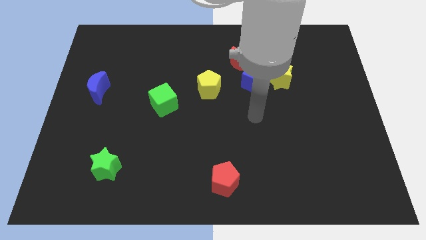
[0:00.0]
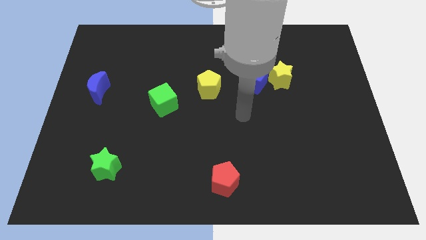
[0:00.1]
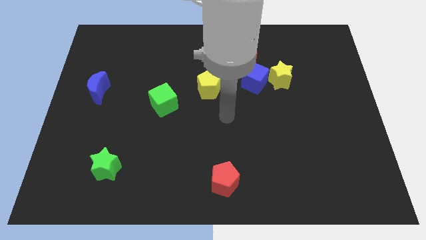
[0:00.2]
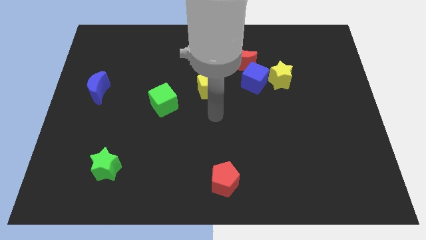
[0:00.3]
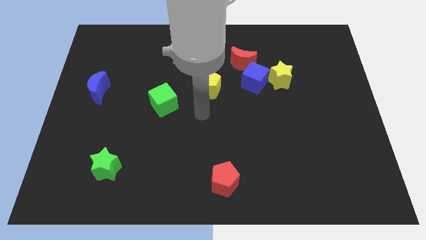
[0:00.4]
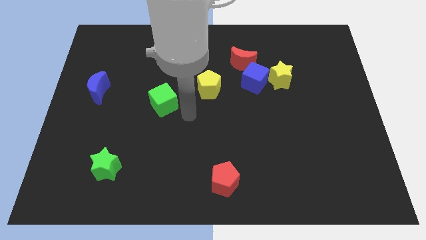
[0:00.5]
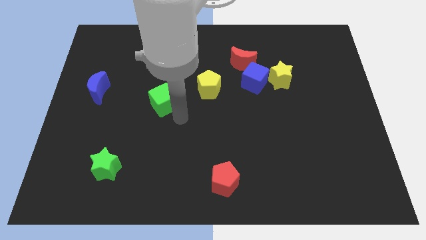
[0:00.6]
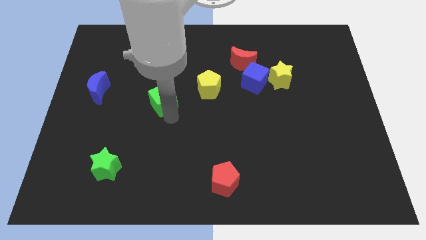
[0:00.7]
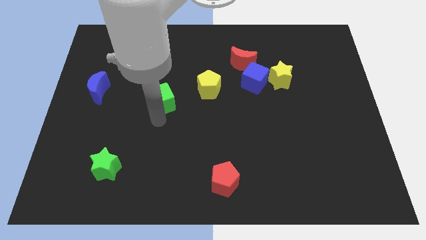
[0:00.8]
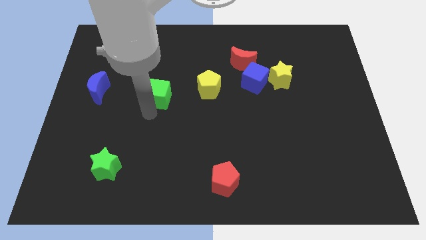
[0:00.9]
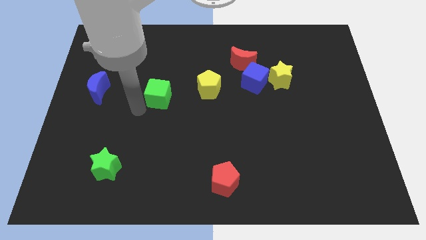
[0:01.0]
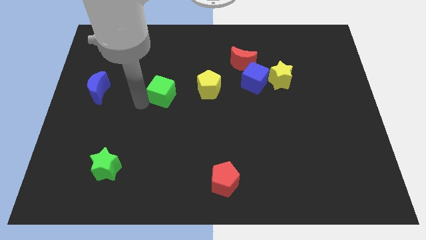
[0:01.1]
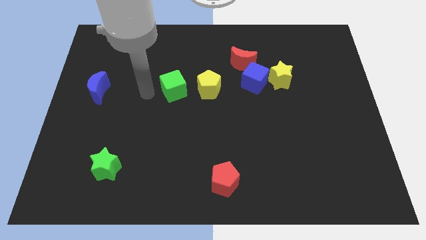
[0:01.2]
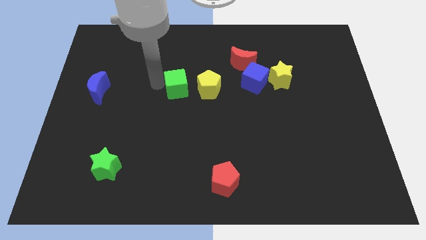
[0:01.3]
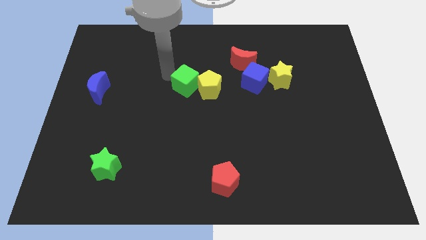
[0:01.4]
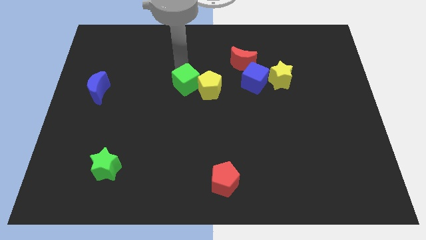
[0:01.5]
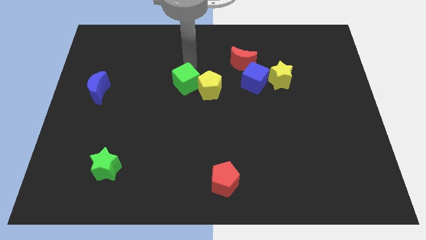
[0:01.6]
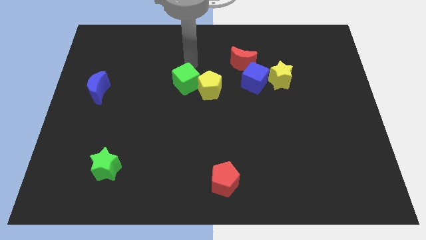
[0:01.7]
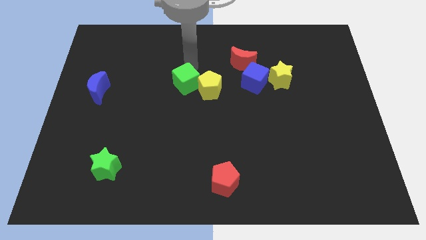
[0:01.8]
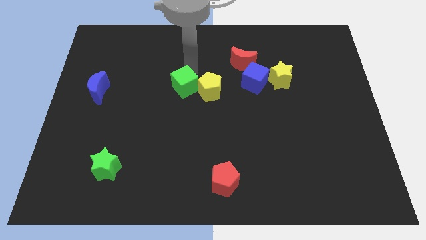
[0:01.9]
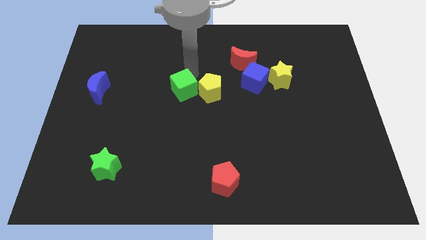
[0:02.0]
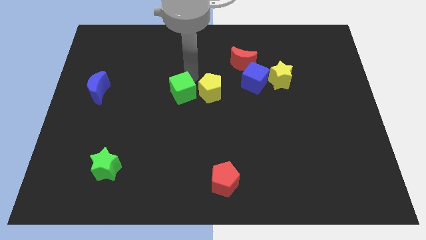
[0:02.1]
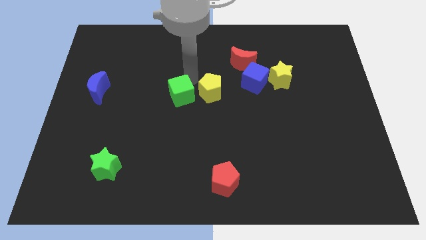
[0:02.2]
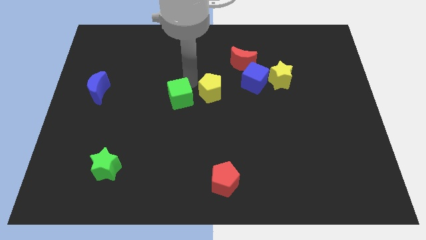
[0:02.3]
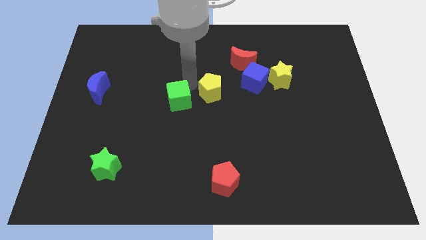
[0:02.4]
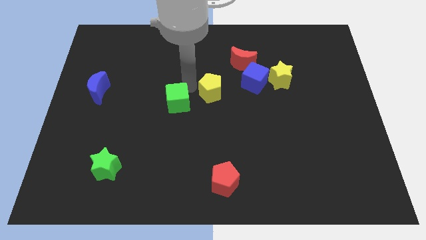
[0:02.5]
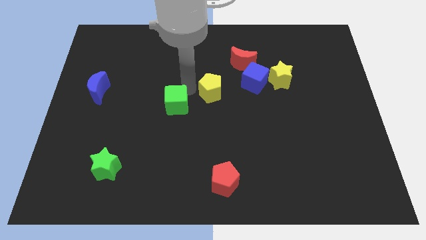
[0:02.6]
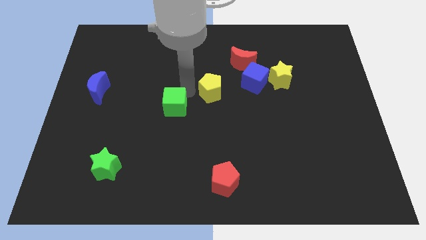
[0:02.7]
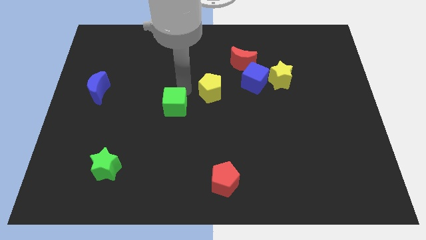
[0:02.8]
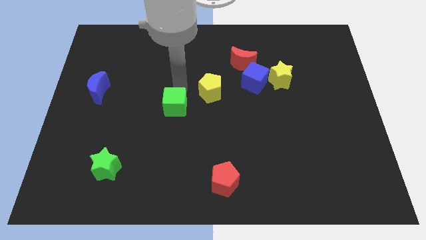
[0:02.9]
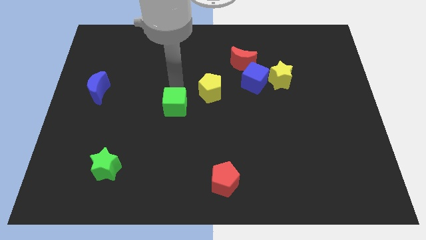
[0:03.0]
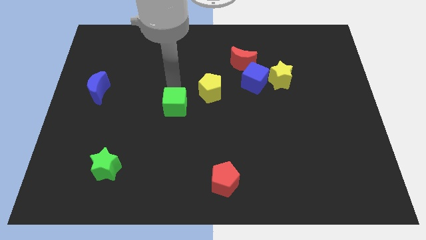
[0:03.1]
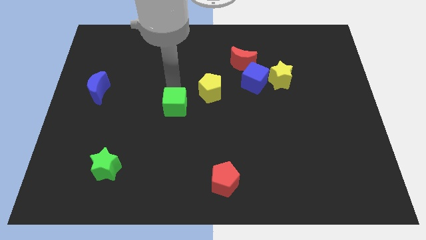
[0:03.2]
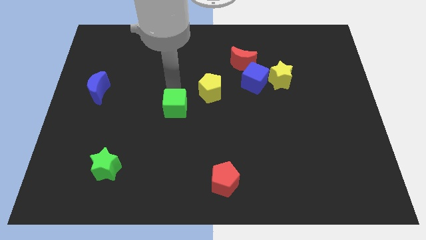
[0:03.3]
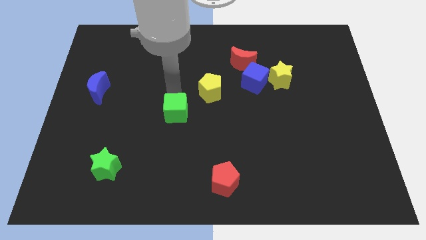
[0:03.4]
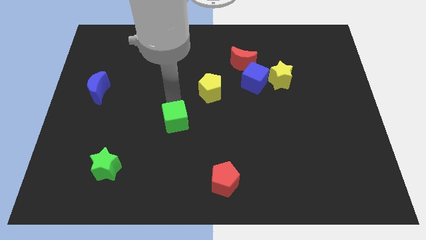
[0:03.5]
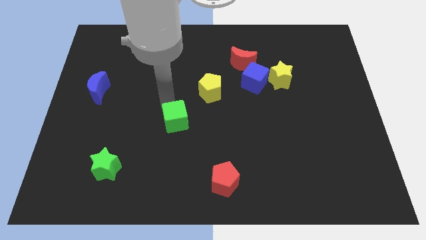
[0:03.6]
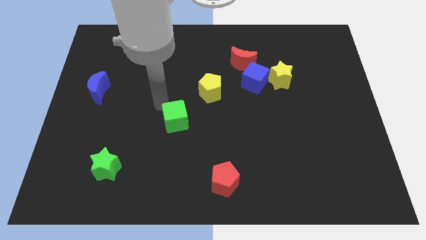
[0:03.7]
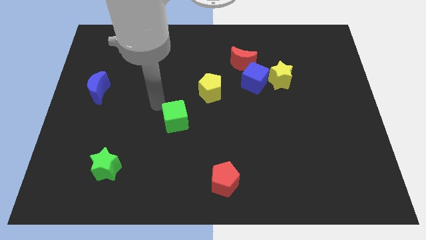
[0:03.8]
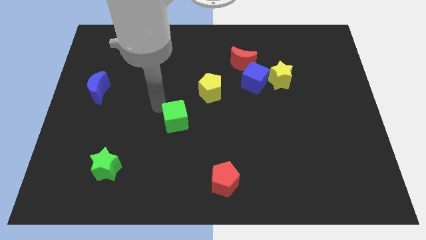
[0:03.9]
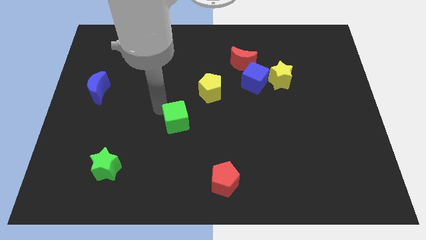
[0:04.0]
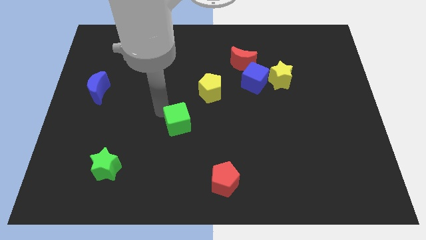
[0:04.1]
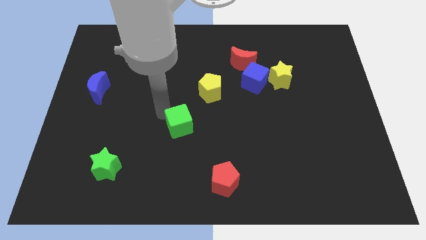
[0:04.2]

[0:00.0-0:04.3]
slide the green cube downwards and then to the right a little

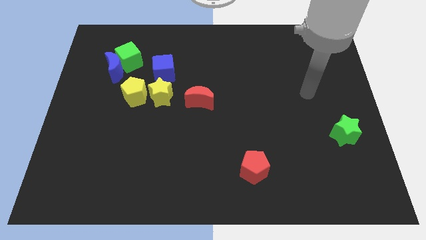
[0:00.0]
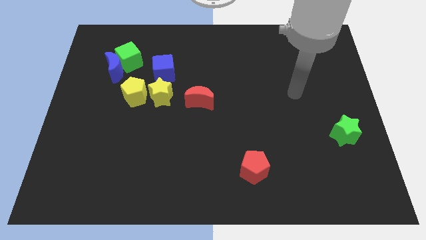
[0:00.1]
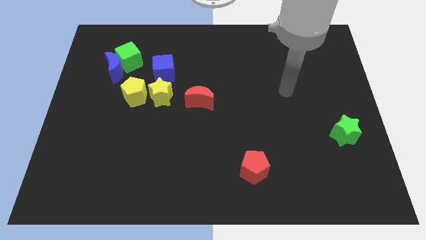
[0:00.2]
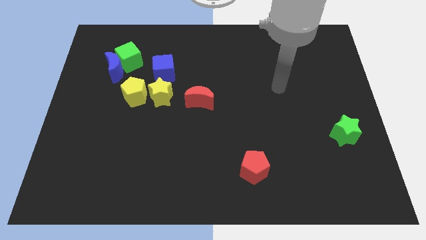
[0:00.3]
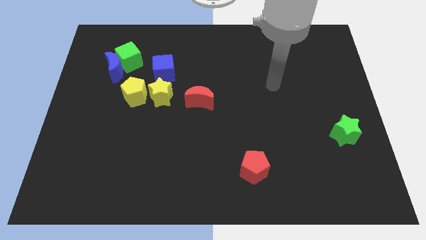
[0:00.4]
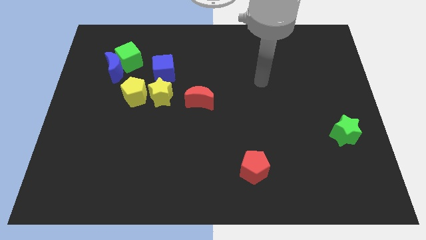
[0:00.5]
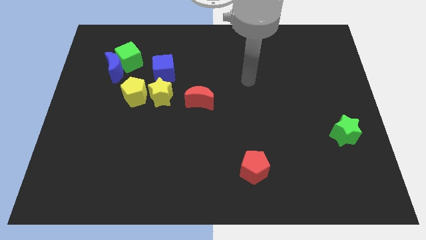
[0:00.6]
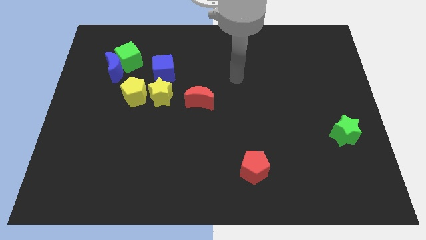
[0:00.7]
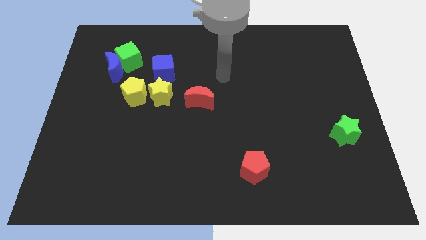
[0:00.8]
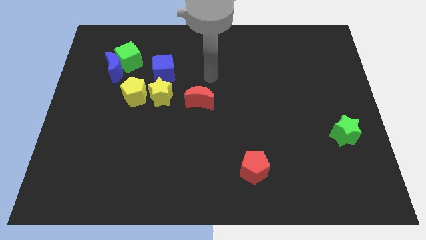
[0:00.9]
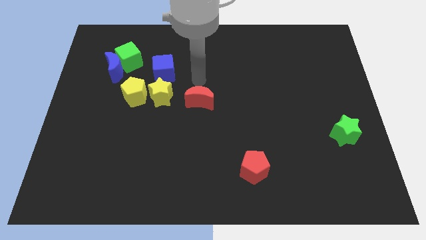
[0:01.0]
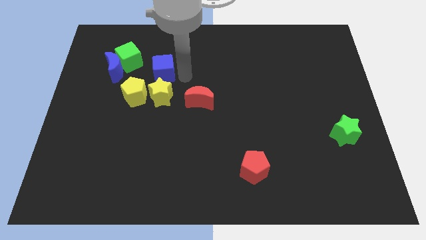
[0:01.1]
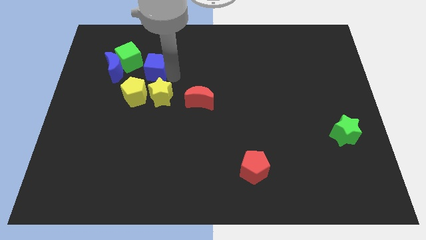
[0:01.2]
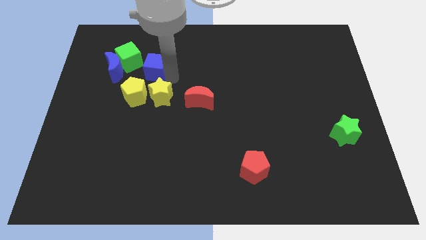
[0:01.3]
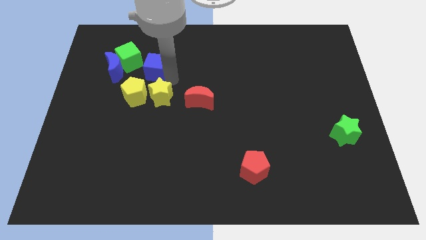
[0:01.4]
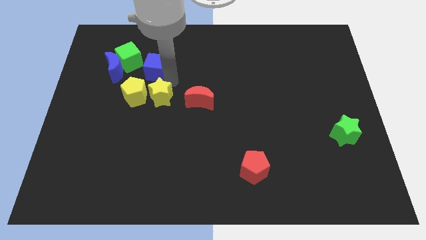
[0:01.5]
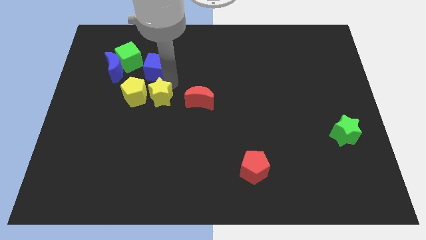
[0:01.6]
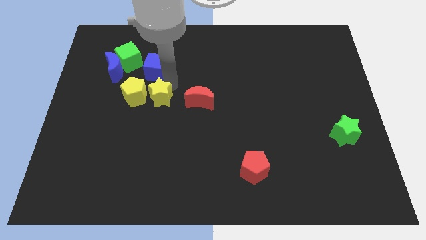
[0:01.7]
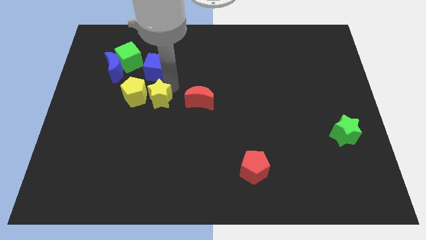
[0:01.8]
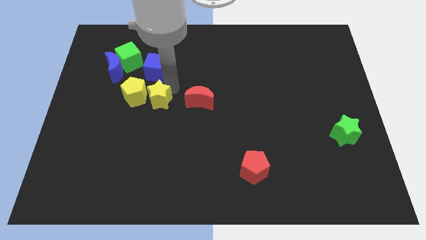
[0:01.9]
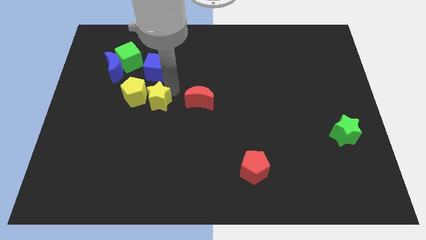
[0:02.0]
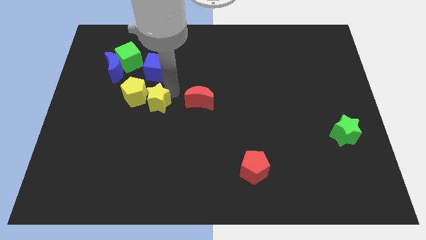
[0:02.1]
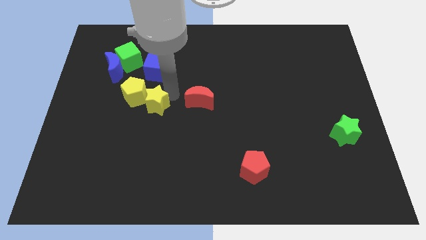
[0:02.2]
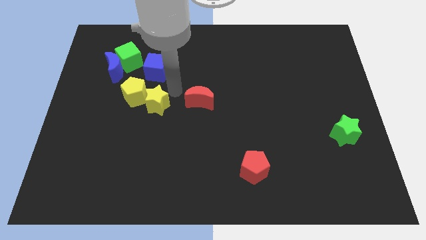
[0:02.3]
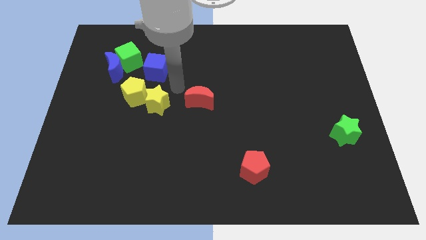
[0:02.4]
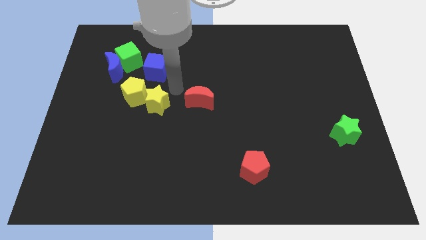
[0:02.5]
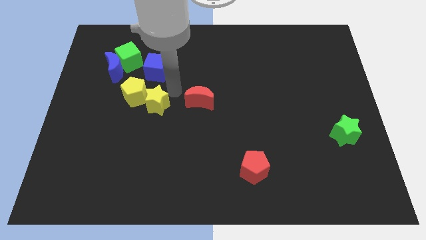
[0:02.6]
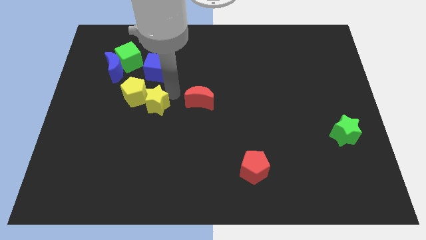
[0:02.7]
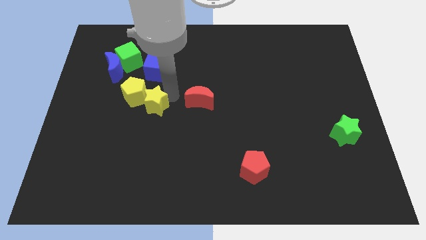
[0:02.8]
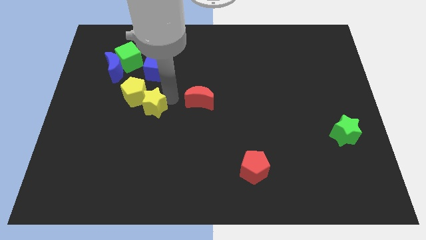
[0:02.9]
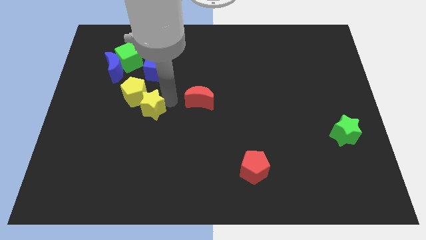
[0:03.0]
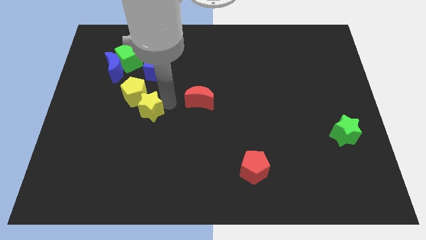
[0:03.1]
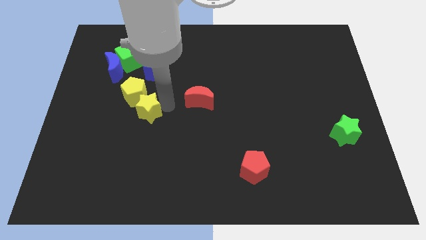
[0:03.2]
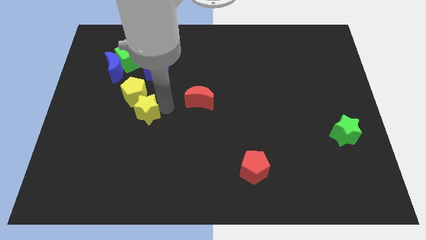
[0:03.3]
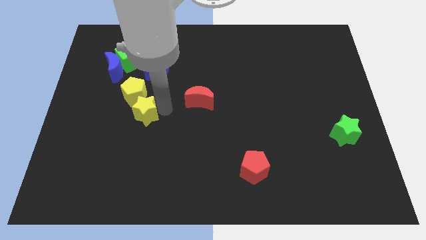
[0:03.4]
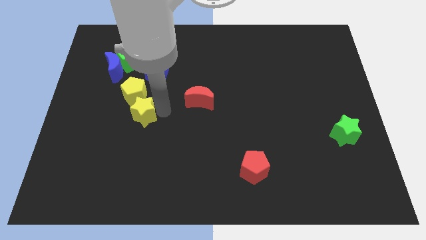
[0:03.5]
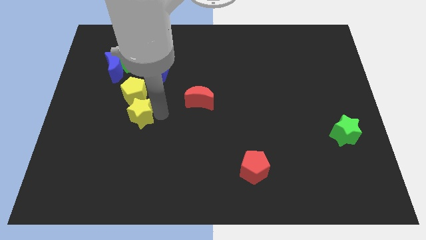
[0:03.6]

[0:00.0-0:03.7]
push the yellow star down and to the left diagonally a little
